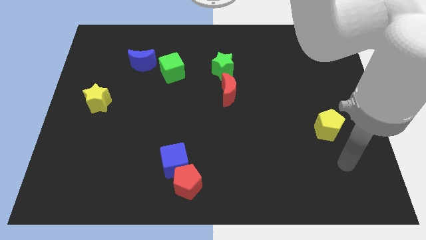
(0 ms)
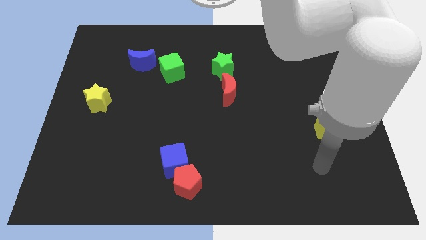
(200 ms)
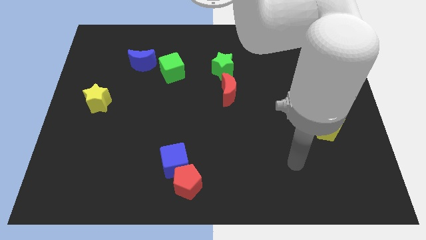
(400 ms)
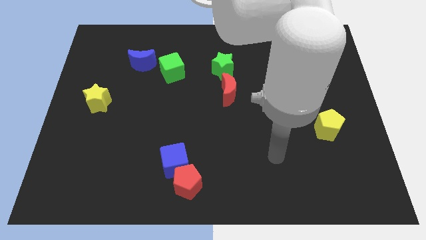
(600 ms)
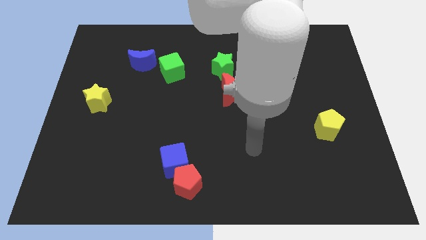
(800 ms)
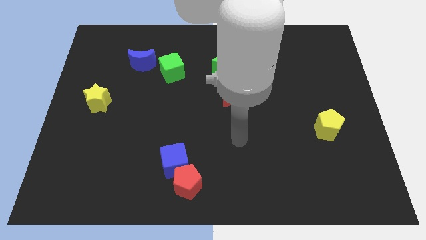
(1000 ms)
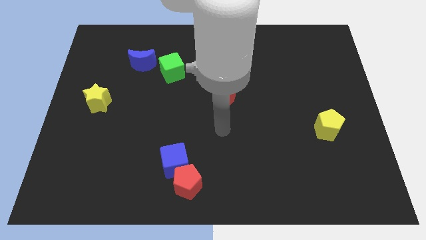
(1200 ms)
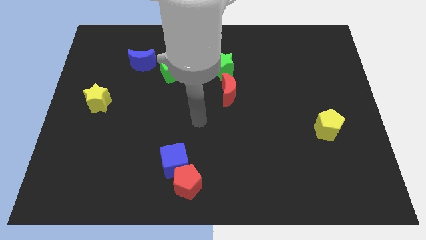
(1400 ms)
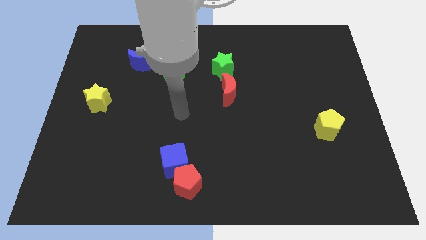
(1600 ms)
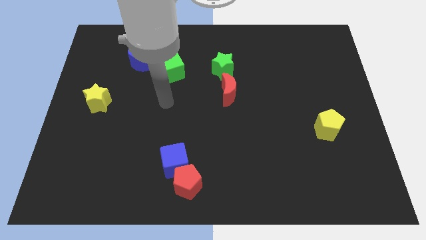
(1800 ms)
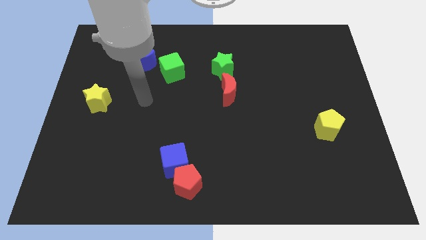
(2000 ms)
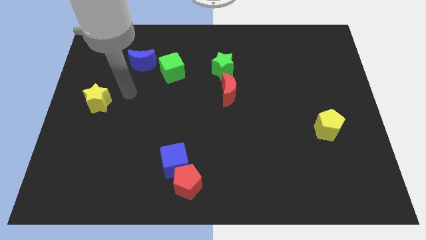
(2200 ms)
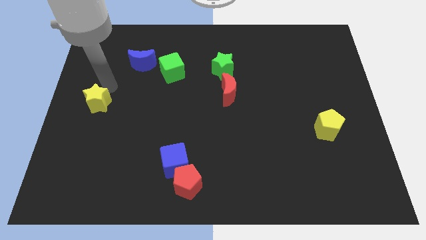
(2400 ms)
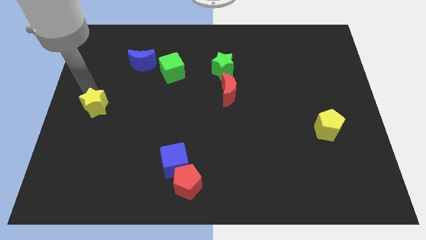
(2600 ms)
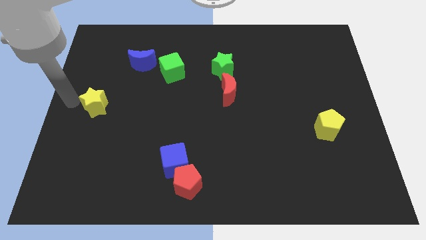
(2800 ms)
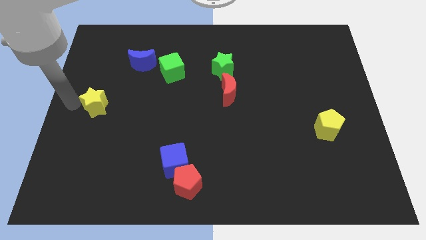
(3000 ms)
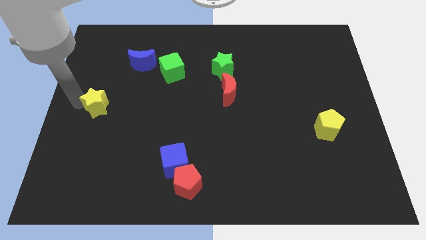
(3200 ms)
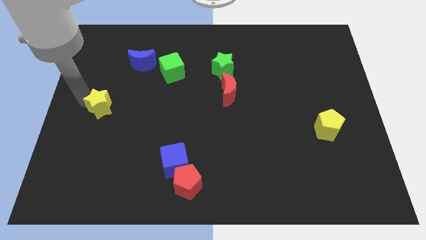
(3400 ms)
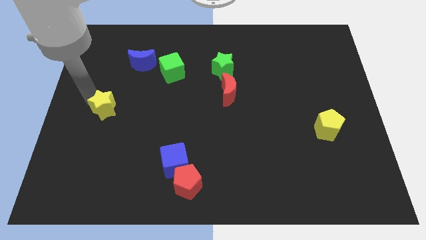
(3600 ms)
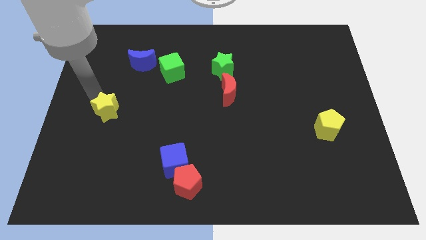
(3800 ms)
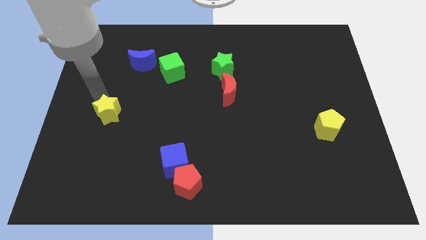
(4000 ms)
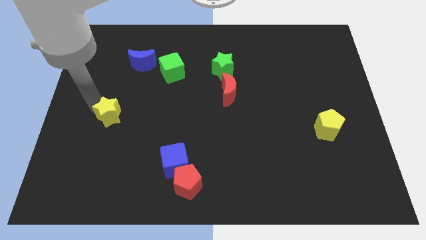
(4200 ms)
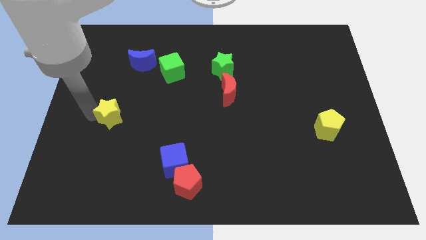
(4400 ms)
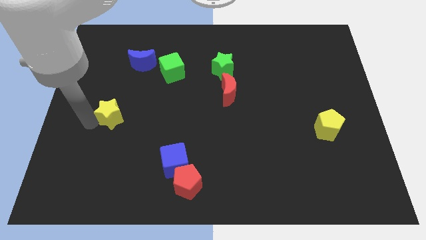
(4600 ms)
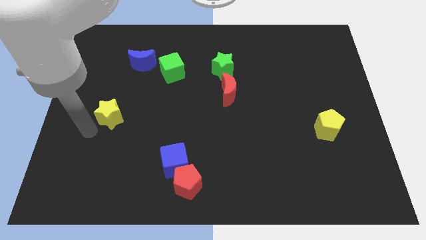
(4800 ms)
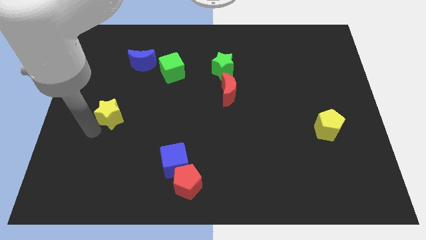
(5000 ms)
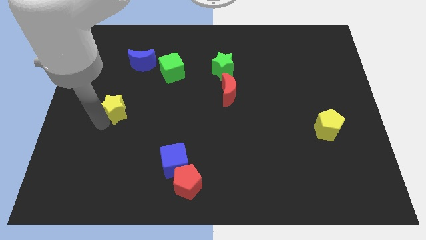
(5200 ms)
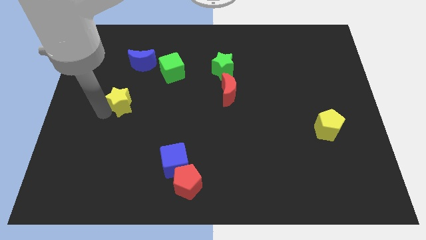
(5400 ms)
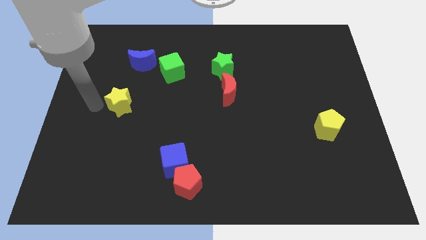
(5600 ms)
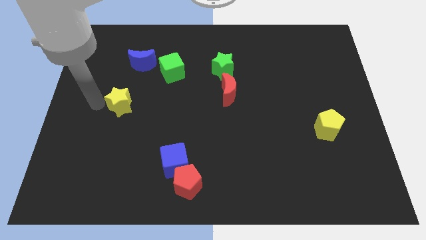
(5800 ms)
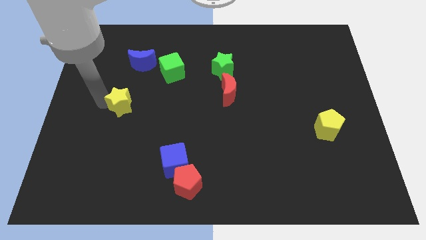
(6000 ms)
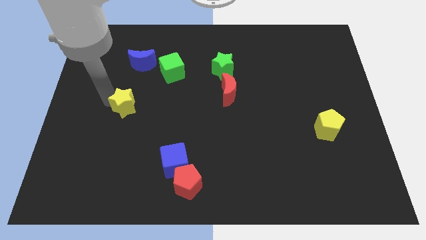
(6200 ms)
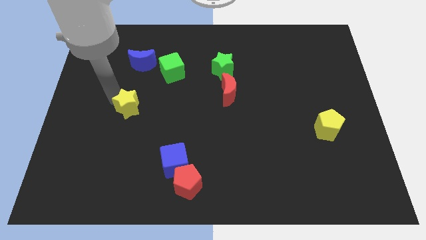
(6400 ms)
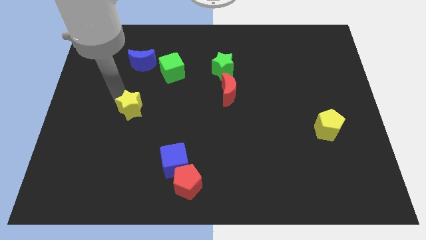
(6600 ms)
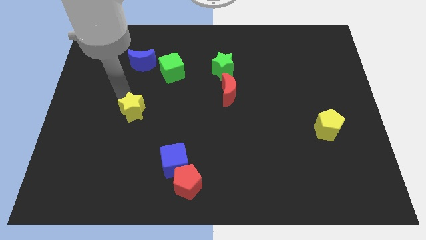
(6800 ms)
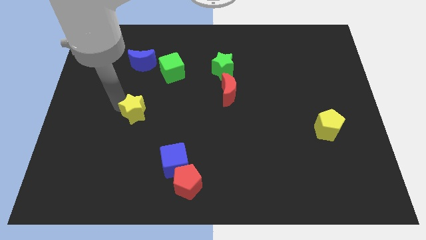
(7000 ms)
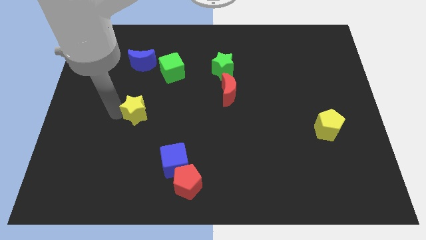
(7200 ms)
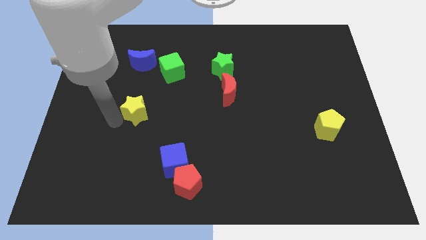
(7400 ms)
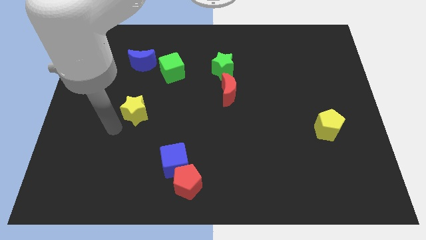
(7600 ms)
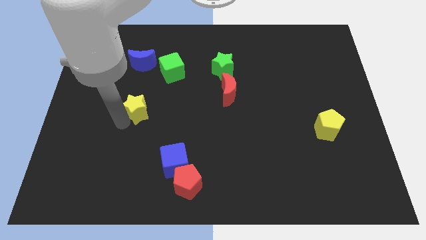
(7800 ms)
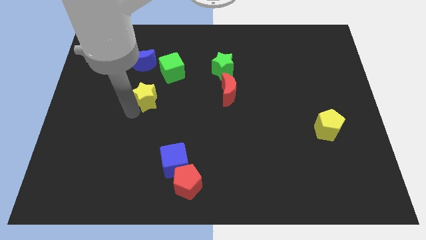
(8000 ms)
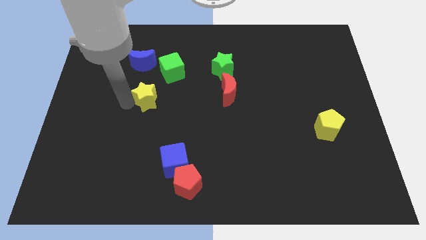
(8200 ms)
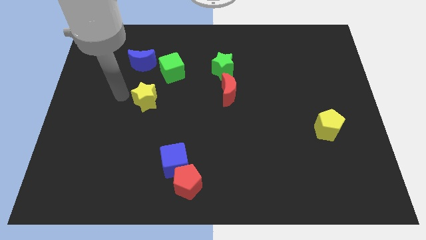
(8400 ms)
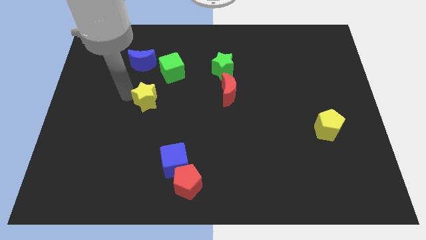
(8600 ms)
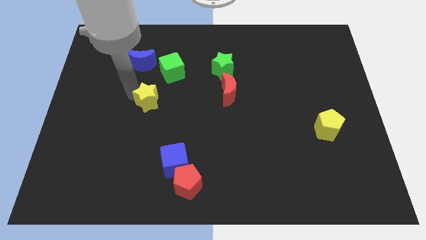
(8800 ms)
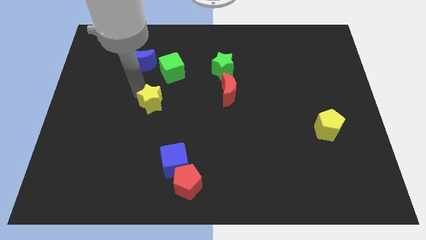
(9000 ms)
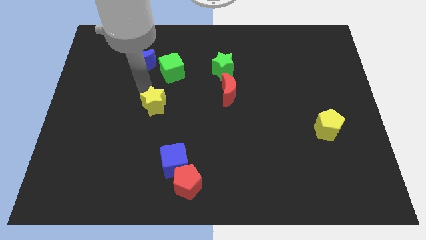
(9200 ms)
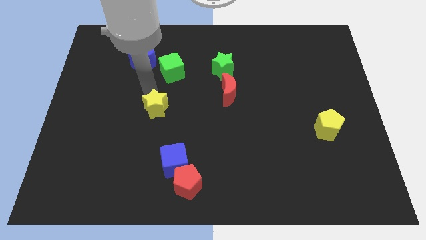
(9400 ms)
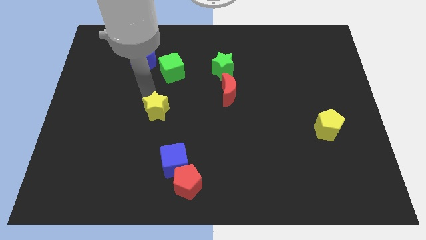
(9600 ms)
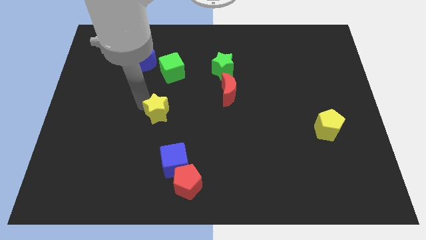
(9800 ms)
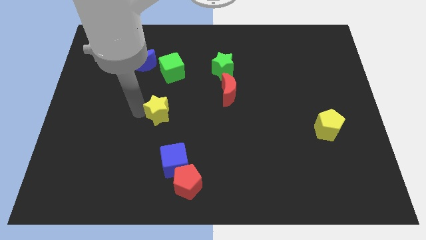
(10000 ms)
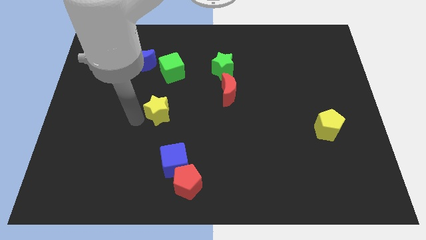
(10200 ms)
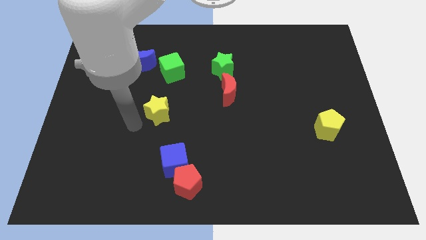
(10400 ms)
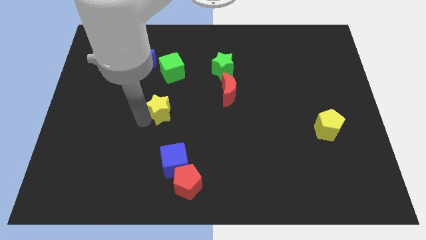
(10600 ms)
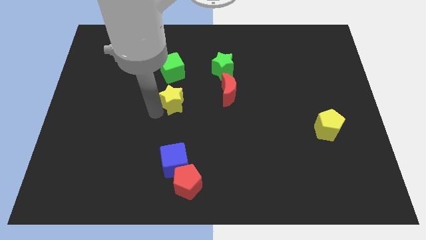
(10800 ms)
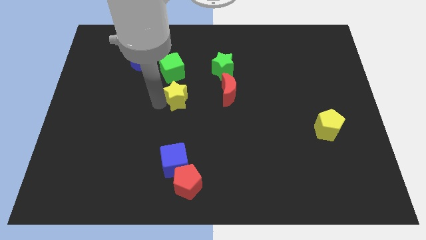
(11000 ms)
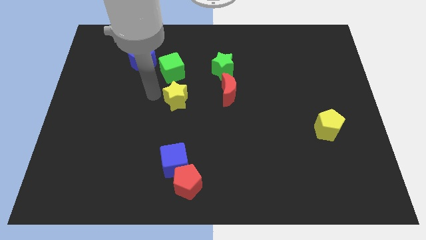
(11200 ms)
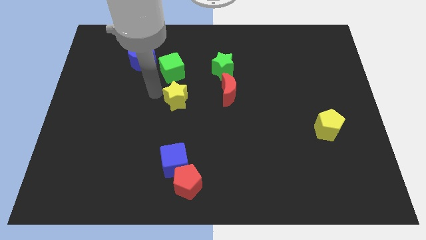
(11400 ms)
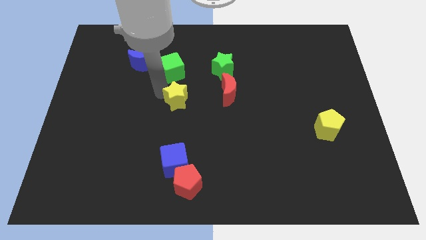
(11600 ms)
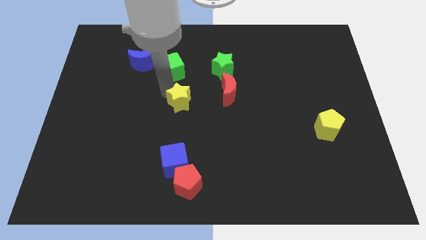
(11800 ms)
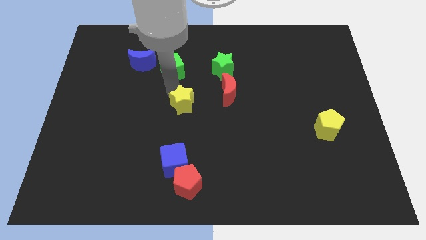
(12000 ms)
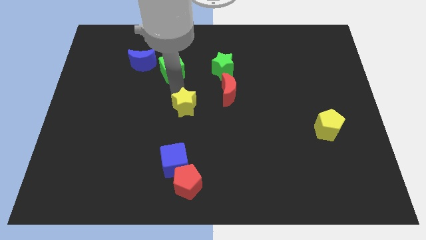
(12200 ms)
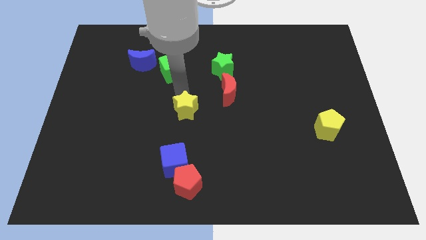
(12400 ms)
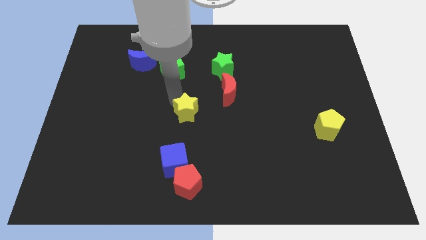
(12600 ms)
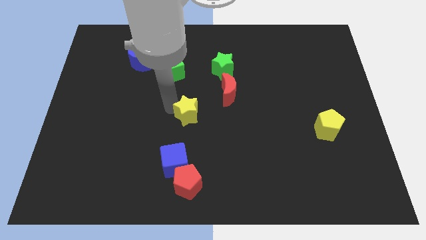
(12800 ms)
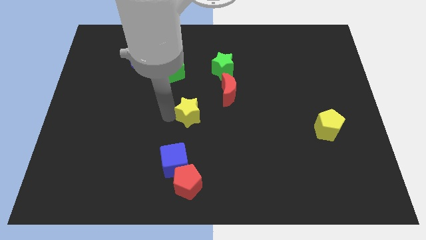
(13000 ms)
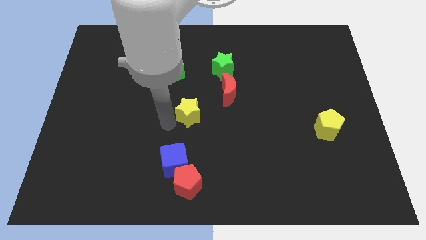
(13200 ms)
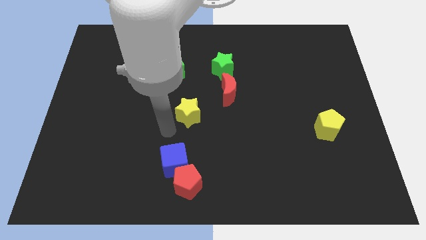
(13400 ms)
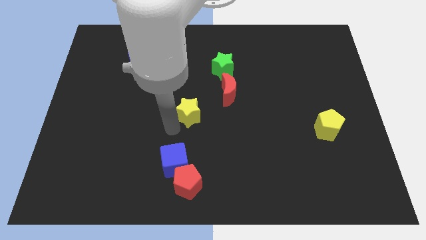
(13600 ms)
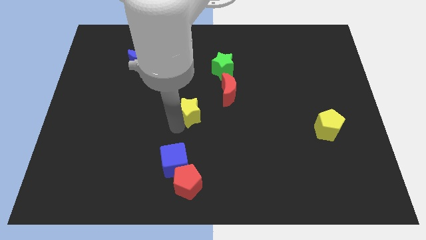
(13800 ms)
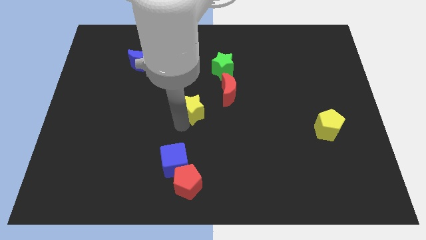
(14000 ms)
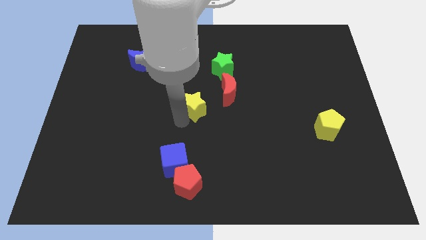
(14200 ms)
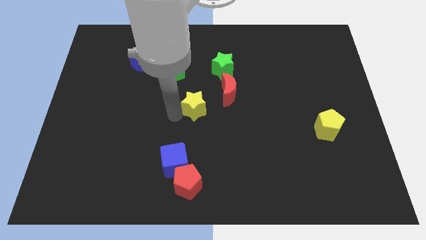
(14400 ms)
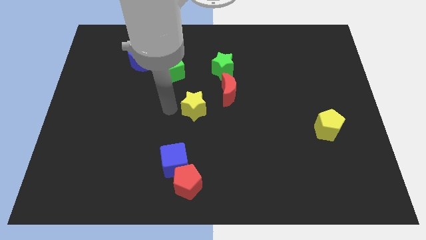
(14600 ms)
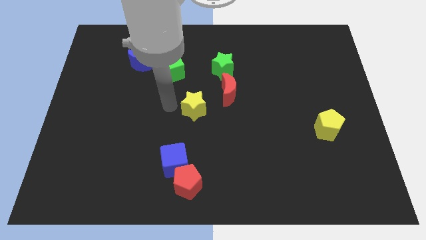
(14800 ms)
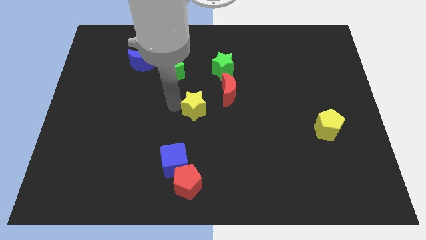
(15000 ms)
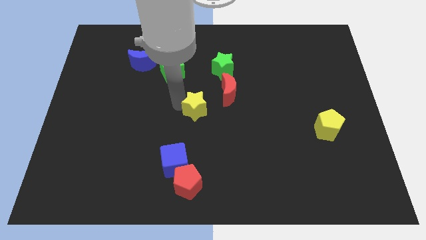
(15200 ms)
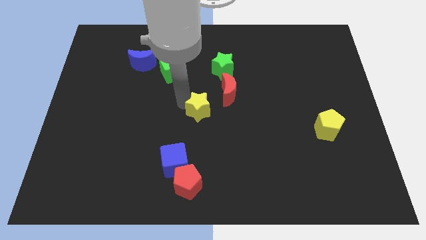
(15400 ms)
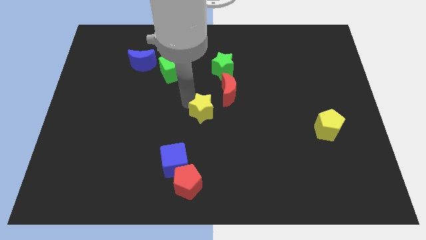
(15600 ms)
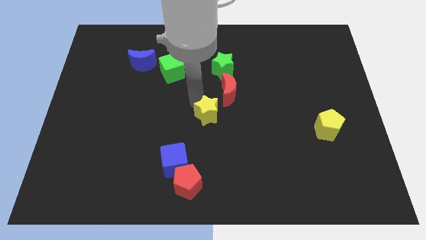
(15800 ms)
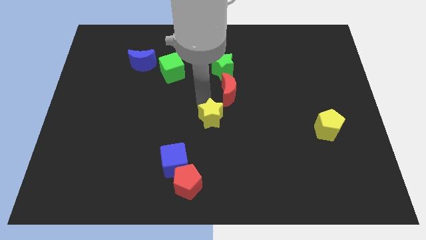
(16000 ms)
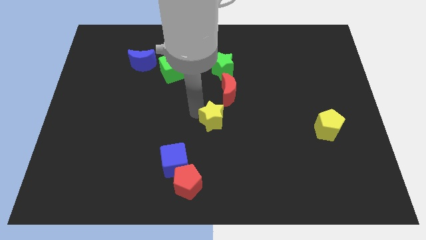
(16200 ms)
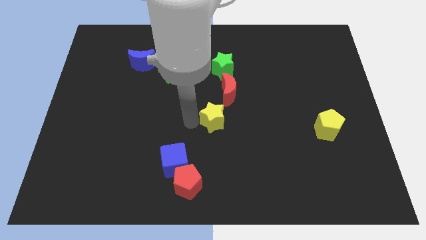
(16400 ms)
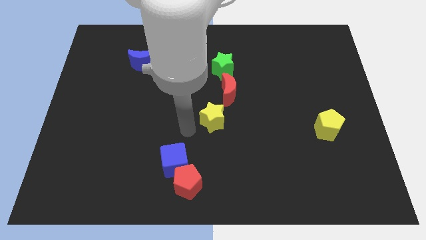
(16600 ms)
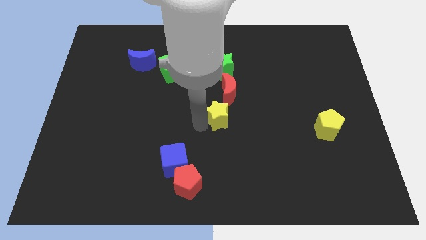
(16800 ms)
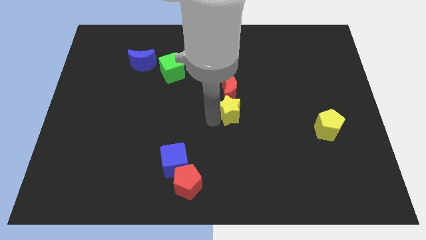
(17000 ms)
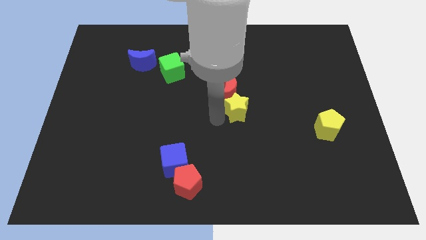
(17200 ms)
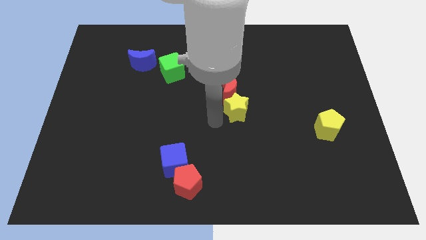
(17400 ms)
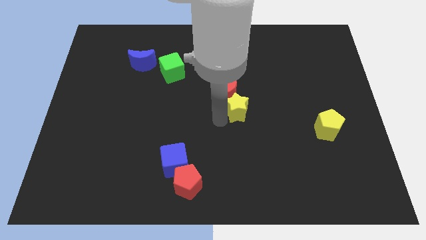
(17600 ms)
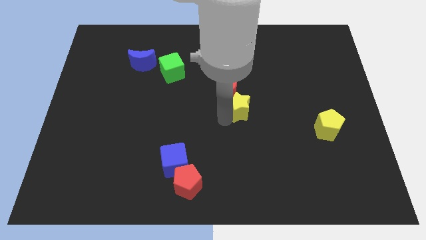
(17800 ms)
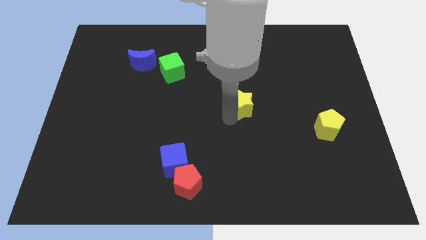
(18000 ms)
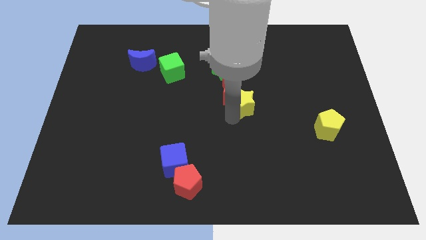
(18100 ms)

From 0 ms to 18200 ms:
put the yellow star just right of the red moon
